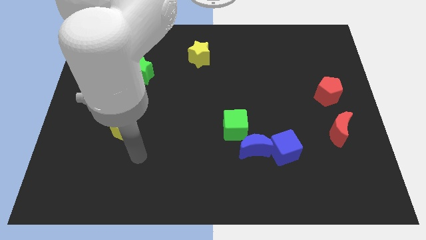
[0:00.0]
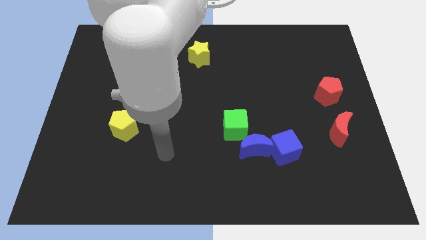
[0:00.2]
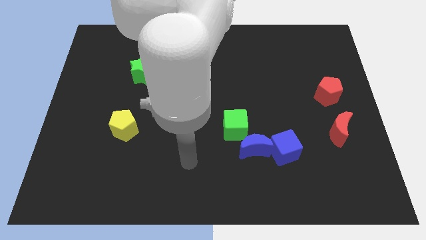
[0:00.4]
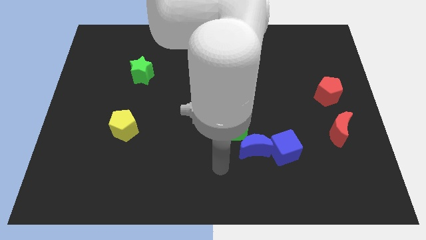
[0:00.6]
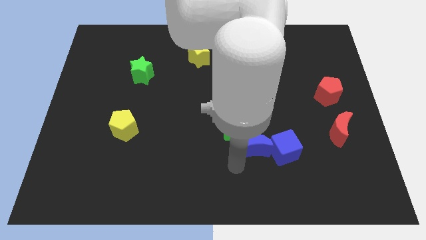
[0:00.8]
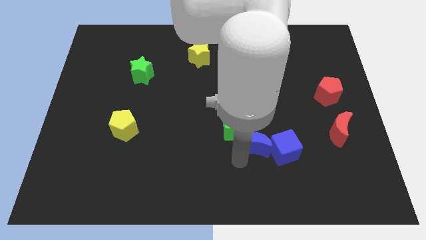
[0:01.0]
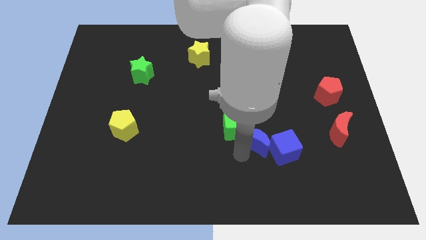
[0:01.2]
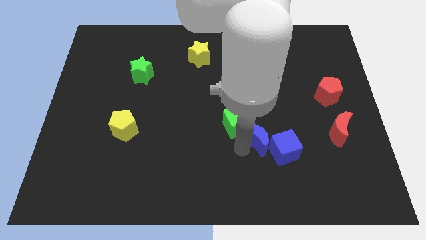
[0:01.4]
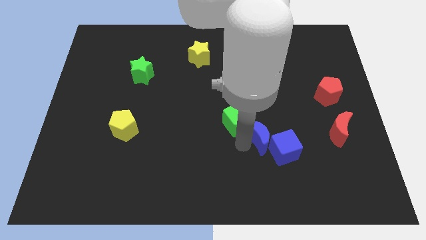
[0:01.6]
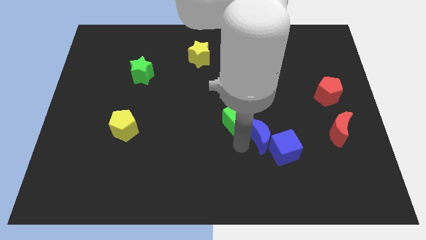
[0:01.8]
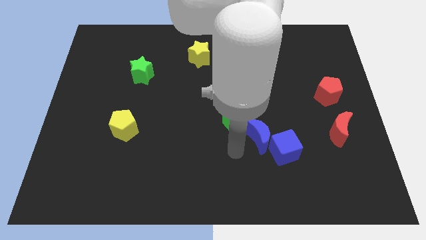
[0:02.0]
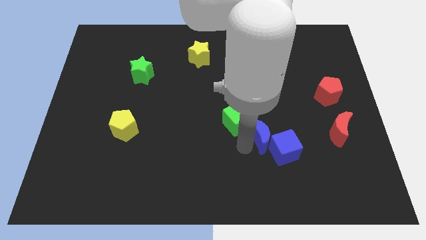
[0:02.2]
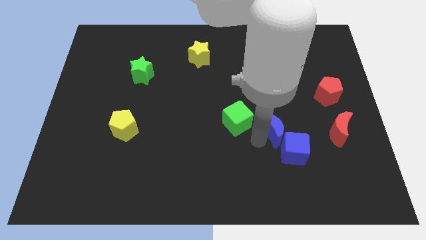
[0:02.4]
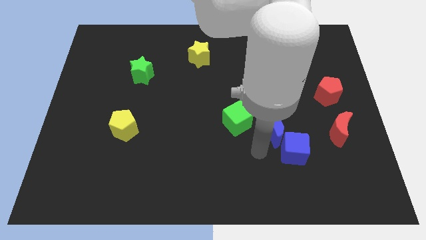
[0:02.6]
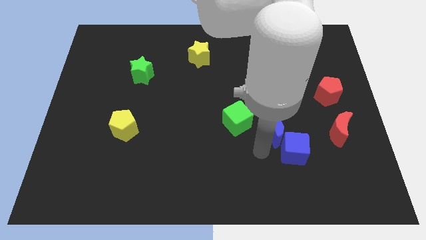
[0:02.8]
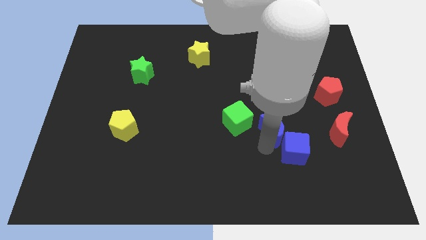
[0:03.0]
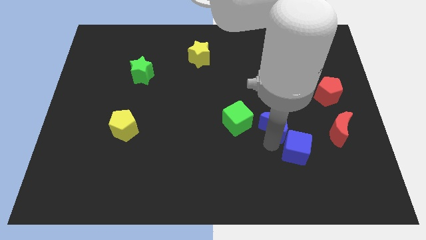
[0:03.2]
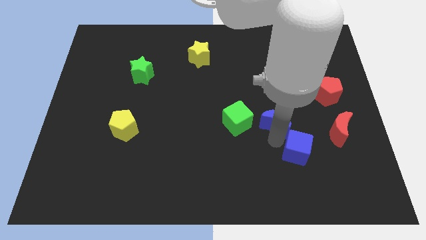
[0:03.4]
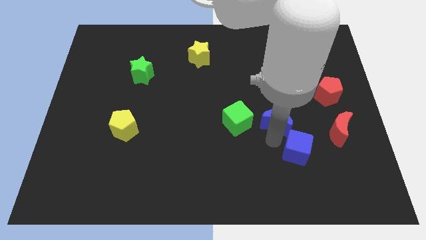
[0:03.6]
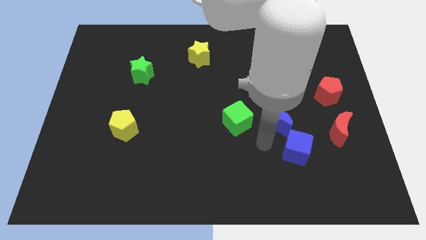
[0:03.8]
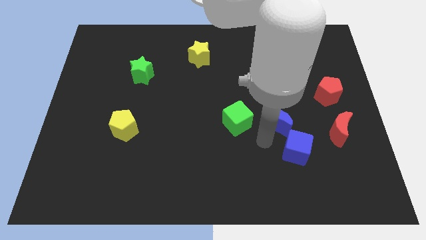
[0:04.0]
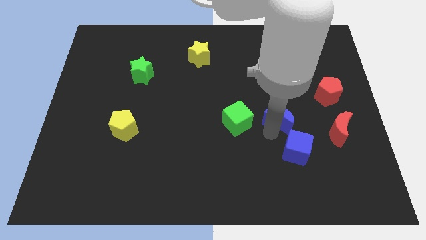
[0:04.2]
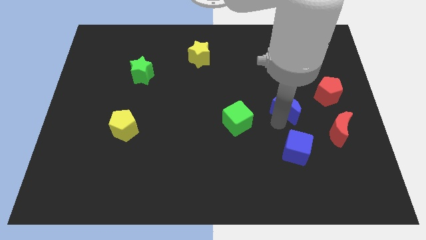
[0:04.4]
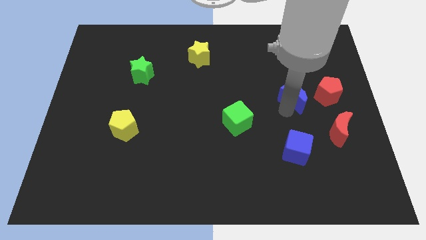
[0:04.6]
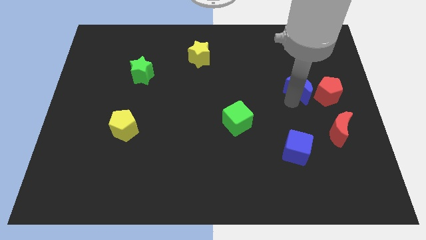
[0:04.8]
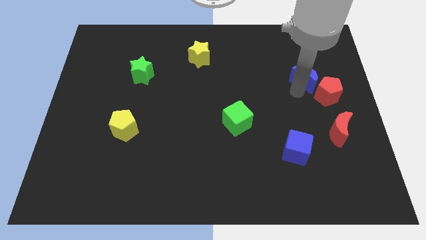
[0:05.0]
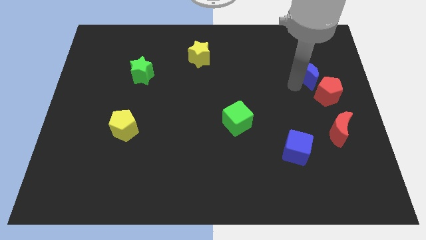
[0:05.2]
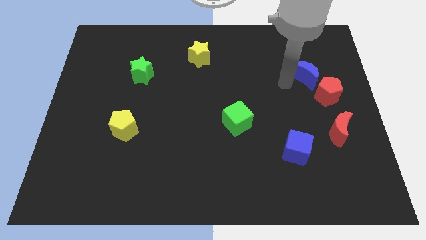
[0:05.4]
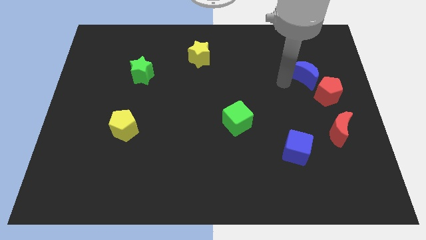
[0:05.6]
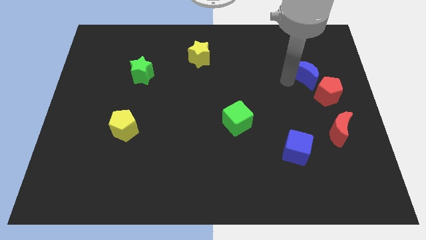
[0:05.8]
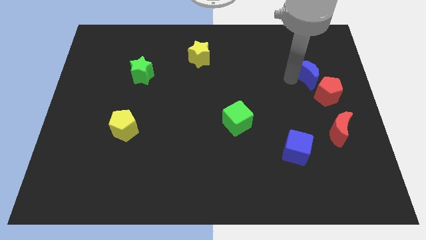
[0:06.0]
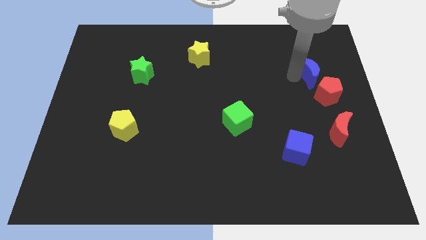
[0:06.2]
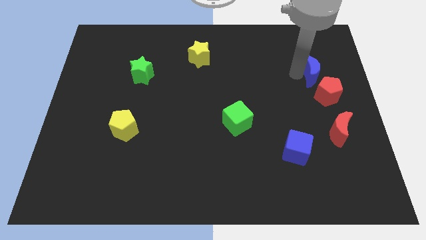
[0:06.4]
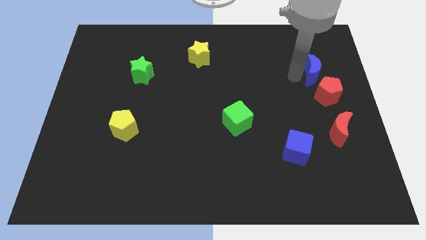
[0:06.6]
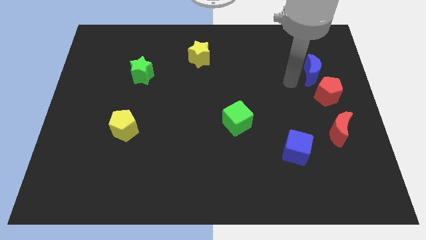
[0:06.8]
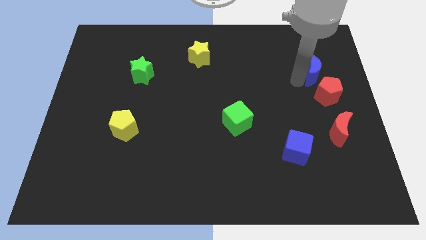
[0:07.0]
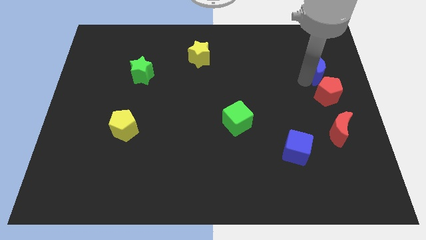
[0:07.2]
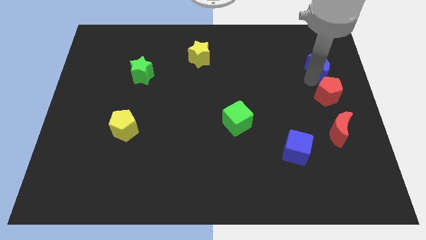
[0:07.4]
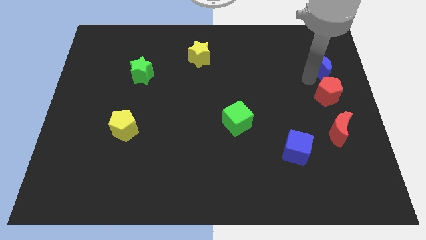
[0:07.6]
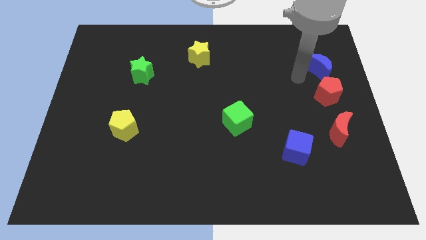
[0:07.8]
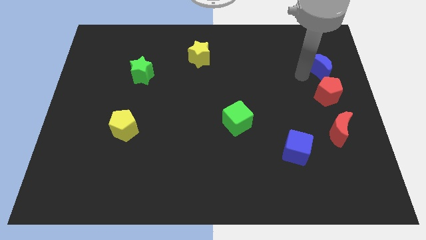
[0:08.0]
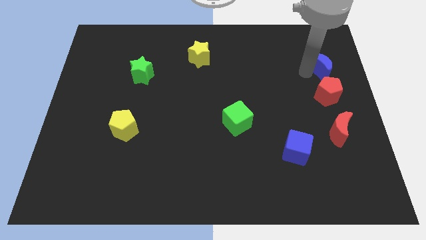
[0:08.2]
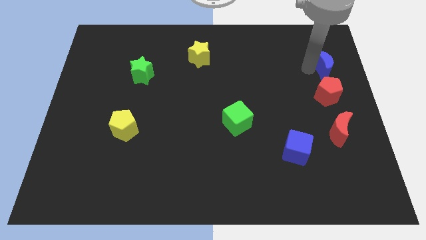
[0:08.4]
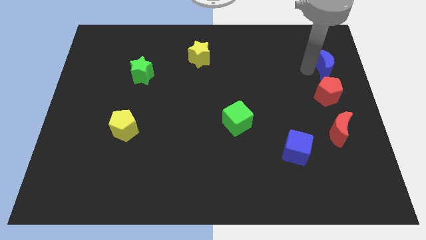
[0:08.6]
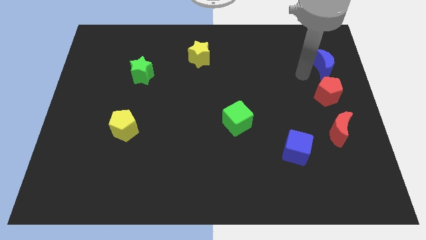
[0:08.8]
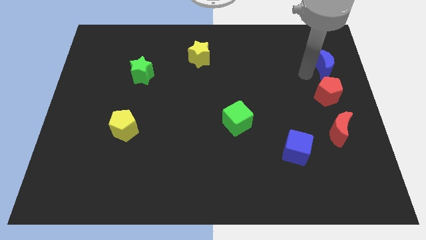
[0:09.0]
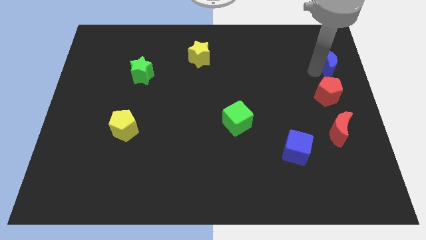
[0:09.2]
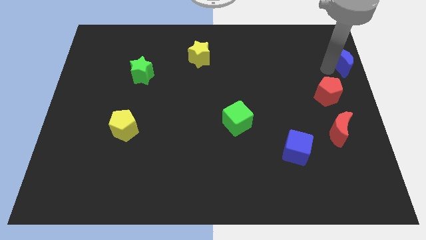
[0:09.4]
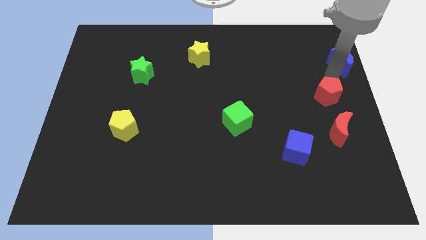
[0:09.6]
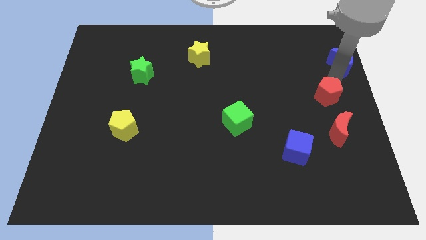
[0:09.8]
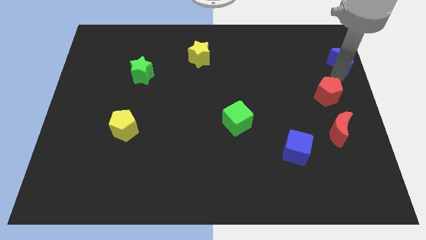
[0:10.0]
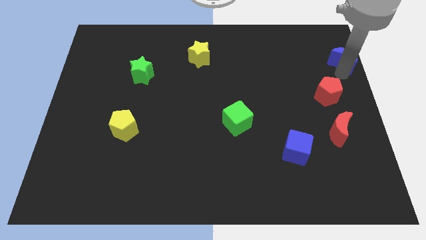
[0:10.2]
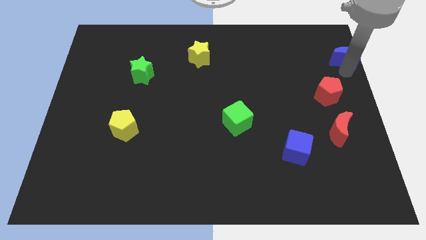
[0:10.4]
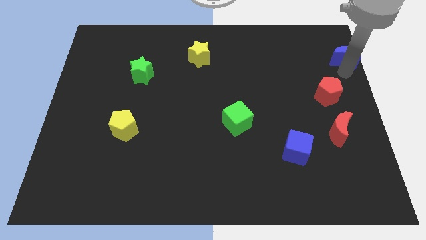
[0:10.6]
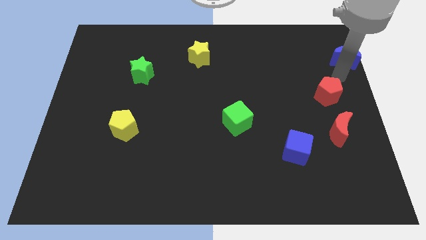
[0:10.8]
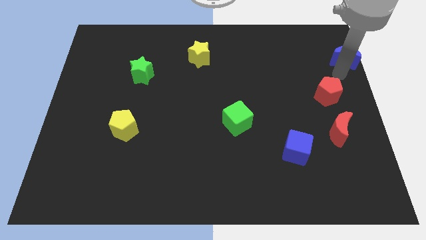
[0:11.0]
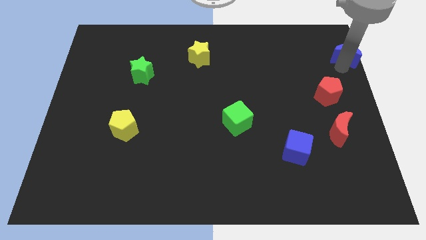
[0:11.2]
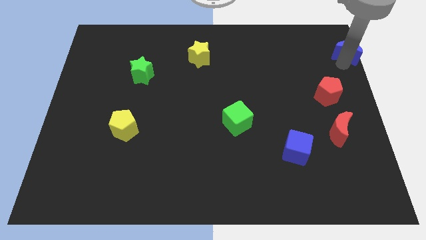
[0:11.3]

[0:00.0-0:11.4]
push the blue moon to the upper right corner
